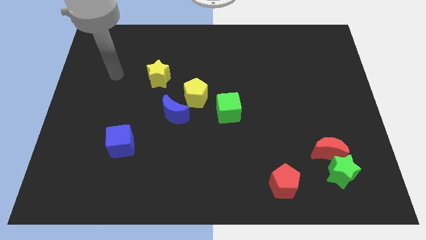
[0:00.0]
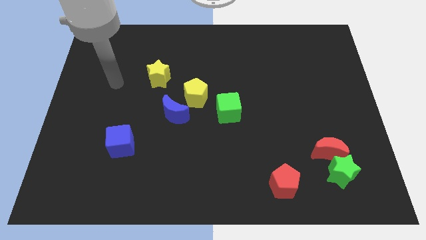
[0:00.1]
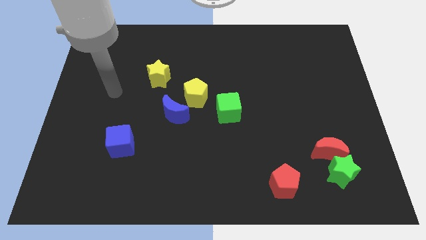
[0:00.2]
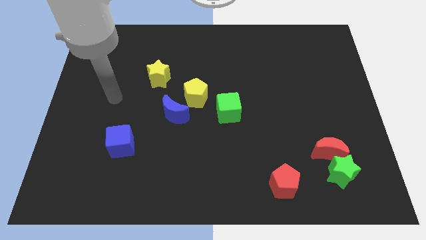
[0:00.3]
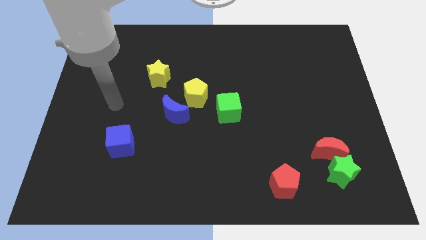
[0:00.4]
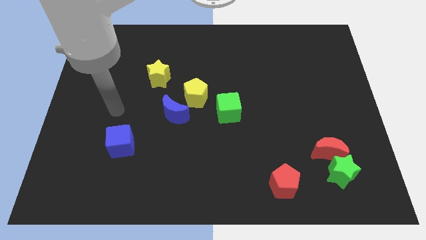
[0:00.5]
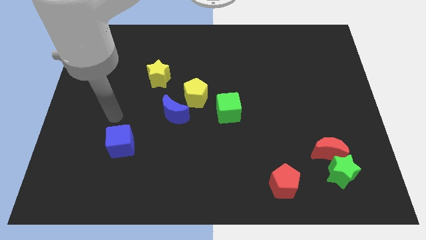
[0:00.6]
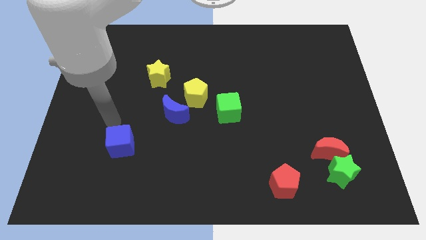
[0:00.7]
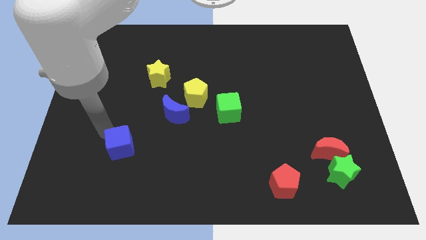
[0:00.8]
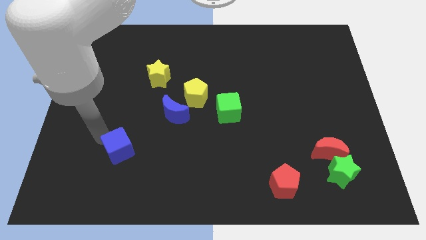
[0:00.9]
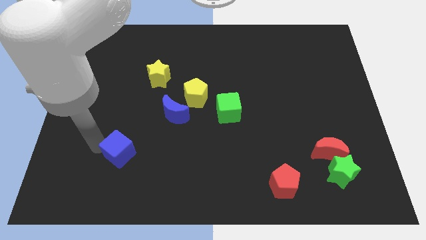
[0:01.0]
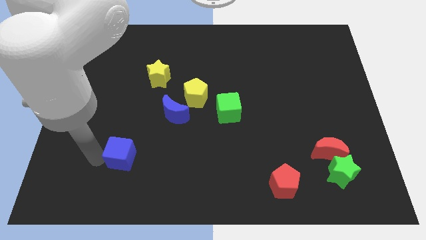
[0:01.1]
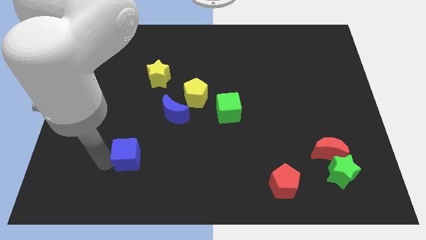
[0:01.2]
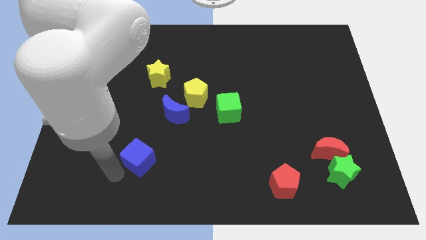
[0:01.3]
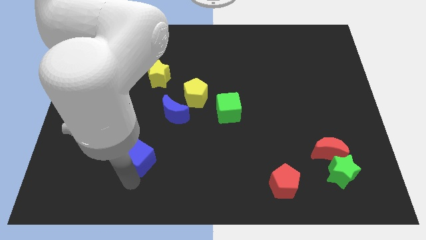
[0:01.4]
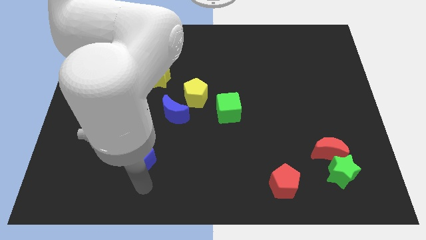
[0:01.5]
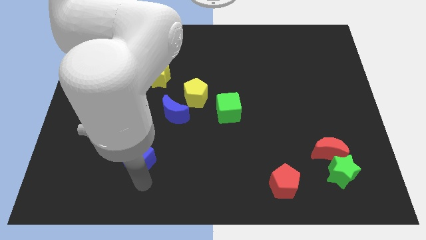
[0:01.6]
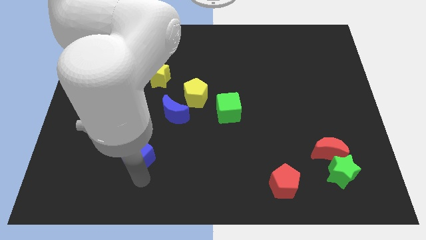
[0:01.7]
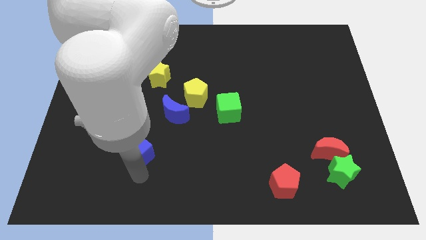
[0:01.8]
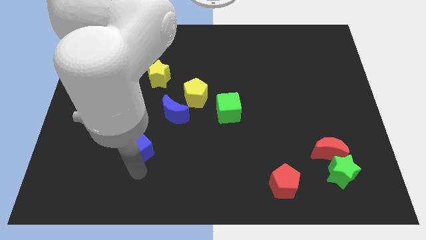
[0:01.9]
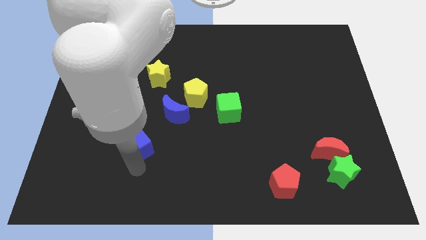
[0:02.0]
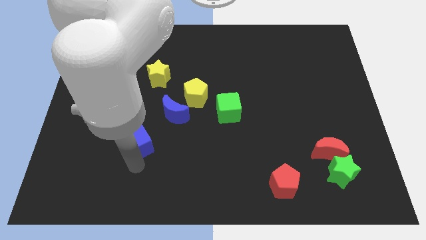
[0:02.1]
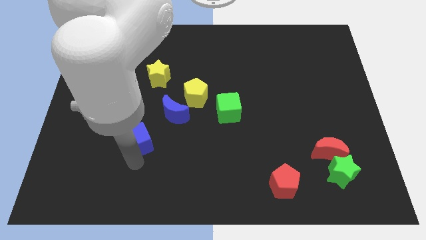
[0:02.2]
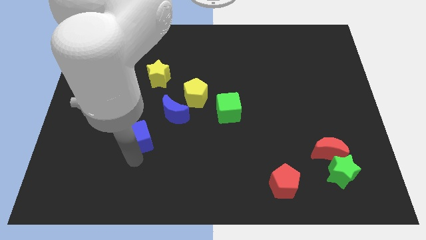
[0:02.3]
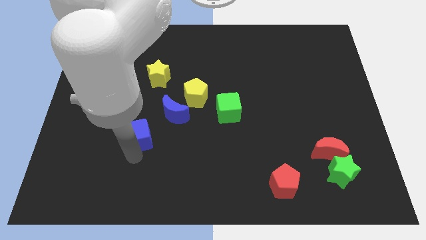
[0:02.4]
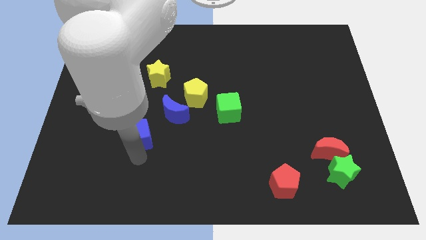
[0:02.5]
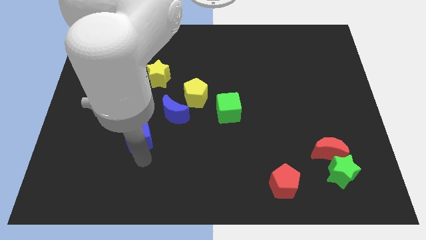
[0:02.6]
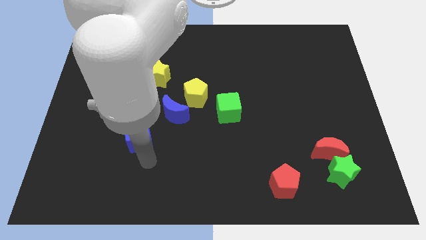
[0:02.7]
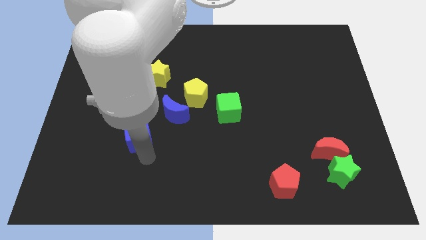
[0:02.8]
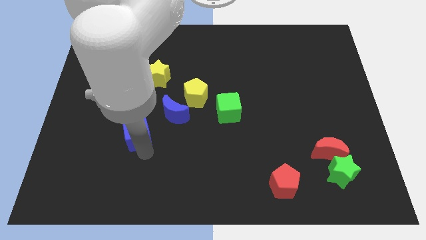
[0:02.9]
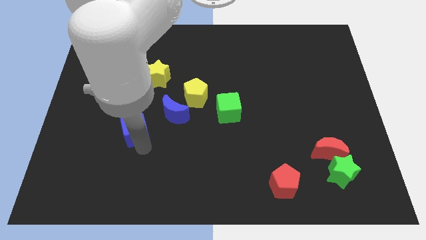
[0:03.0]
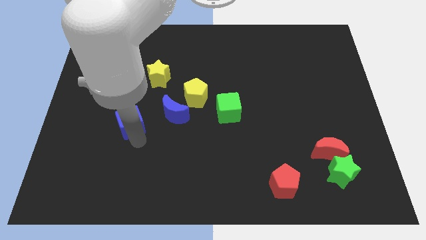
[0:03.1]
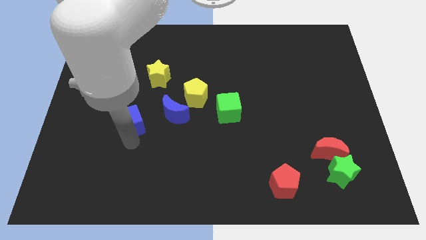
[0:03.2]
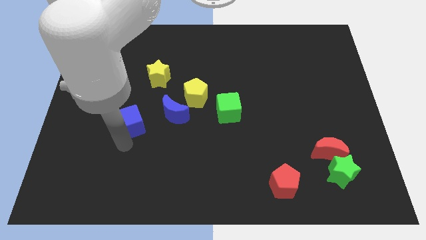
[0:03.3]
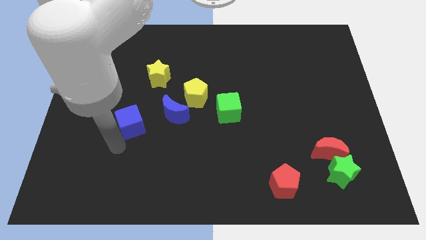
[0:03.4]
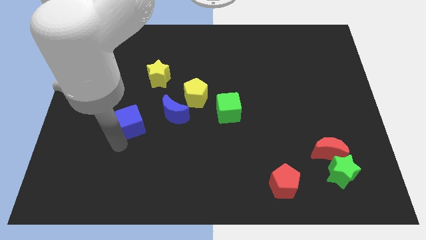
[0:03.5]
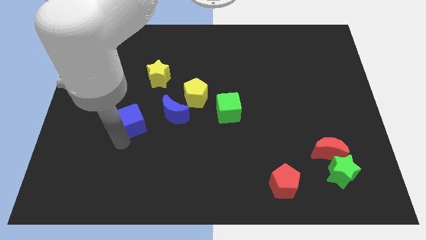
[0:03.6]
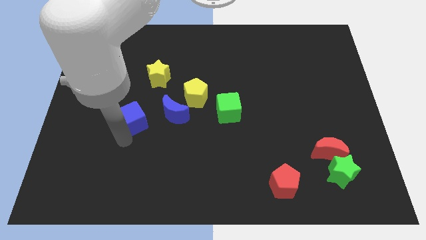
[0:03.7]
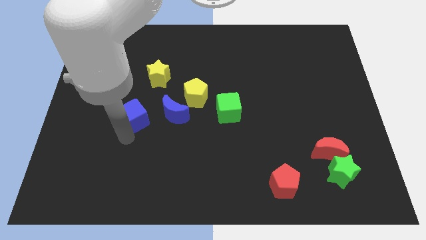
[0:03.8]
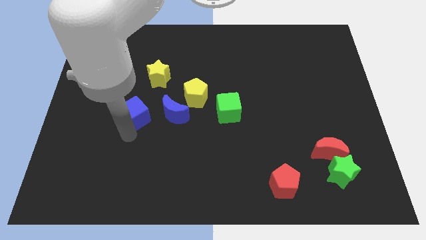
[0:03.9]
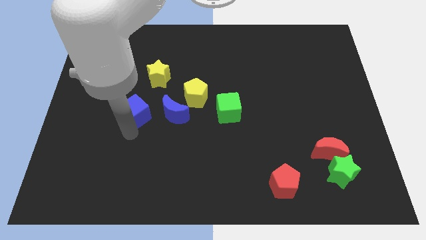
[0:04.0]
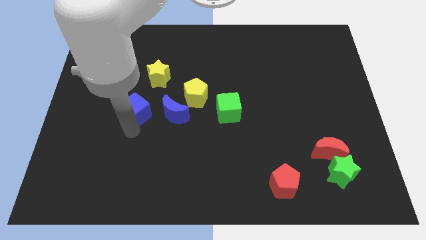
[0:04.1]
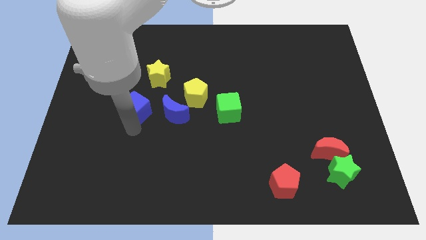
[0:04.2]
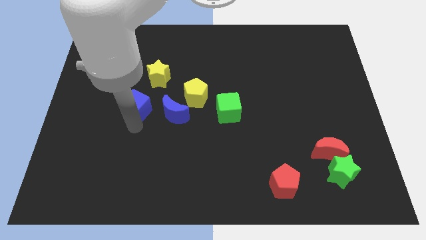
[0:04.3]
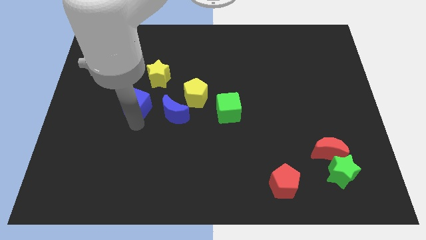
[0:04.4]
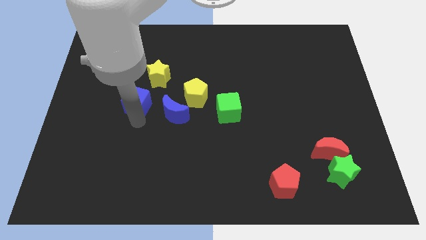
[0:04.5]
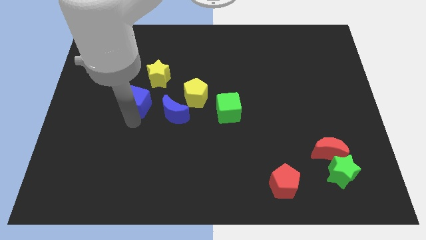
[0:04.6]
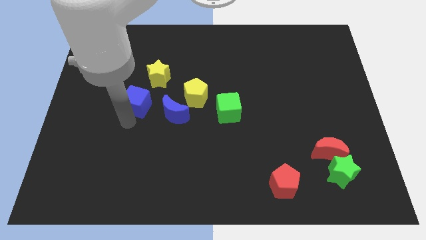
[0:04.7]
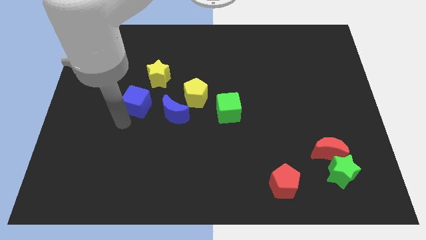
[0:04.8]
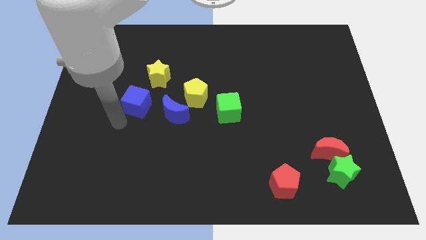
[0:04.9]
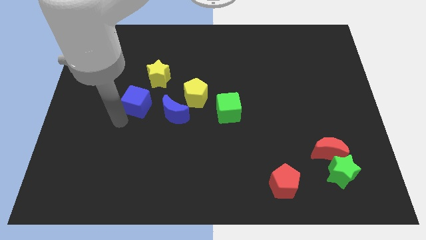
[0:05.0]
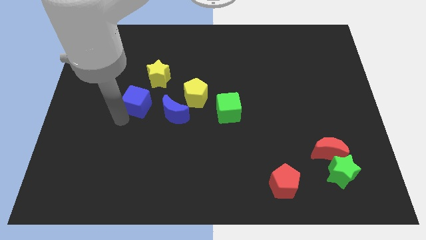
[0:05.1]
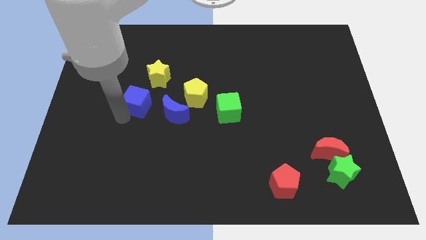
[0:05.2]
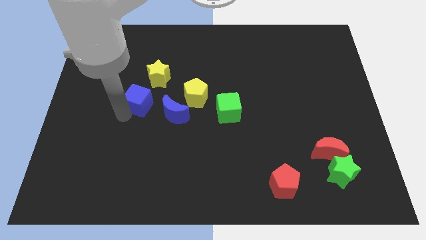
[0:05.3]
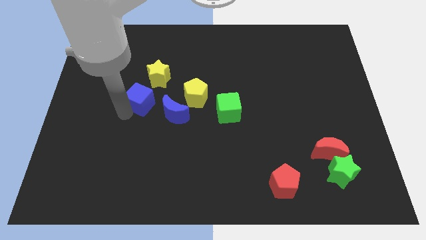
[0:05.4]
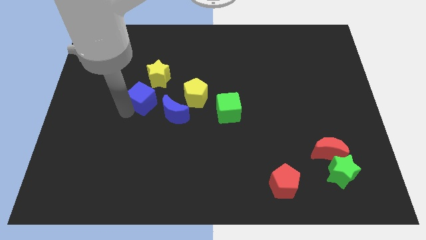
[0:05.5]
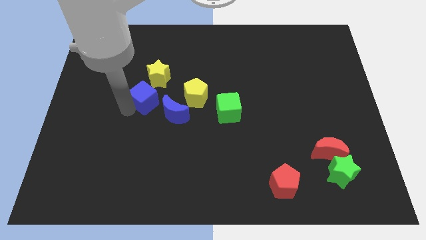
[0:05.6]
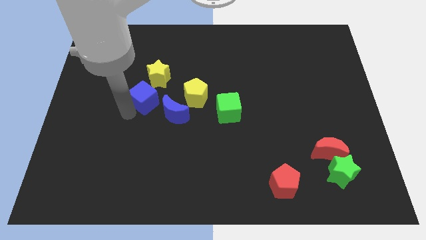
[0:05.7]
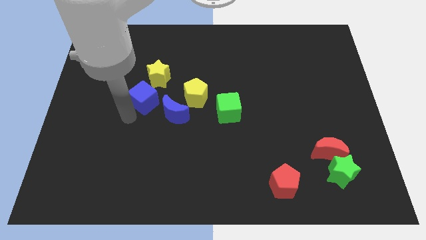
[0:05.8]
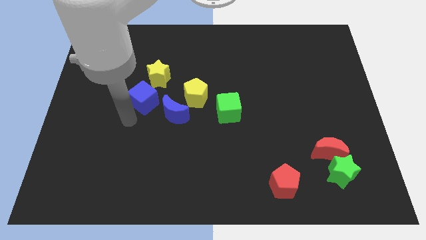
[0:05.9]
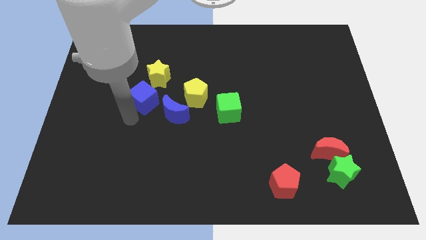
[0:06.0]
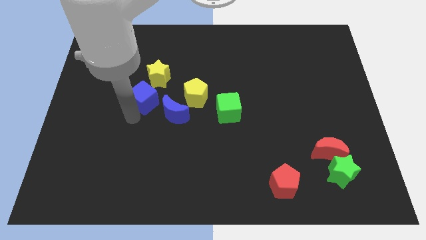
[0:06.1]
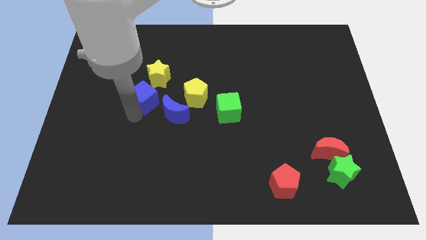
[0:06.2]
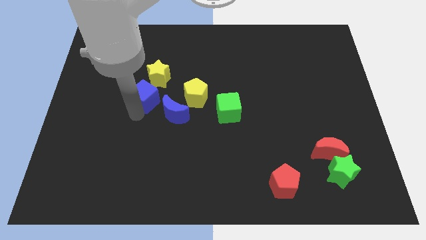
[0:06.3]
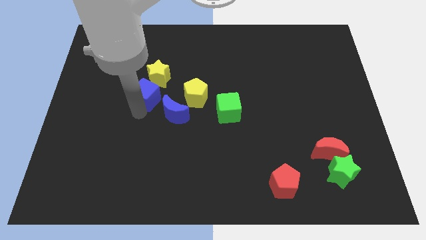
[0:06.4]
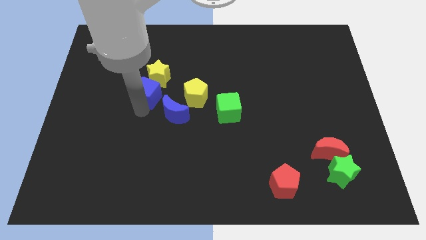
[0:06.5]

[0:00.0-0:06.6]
put the blue cube towards the yellow star

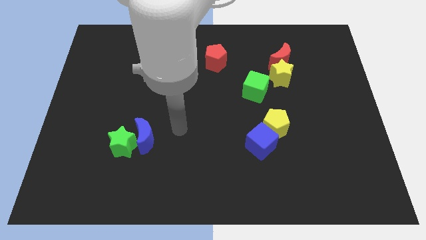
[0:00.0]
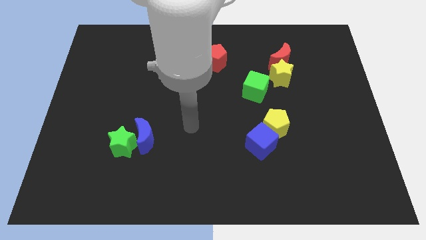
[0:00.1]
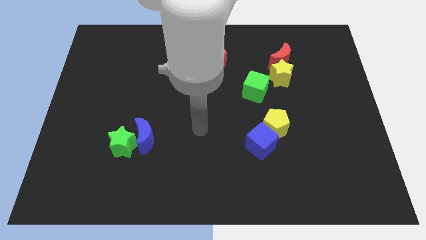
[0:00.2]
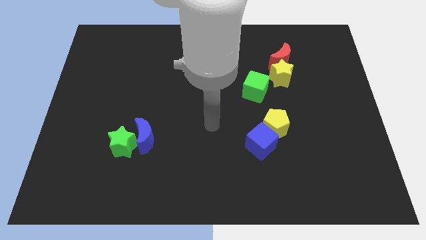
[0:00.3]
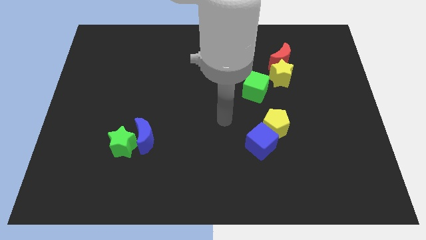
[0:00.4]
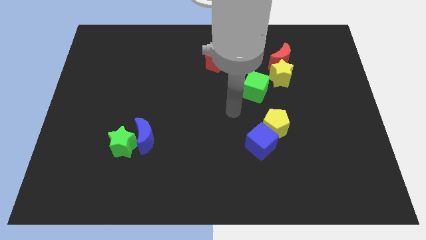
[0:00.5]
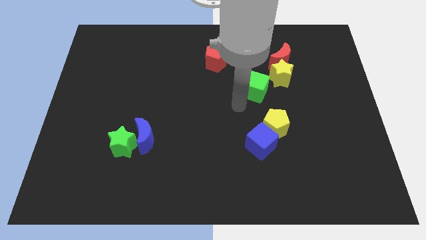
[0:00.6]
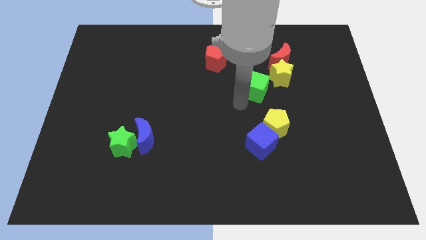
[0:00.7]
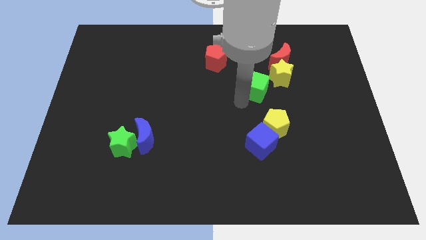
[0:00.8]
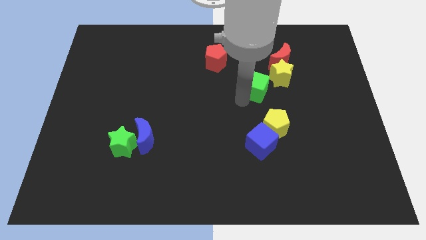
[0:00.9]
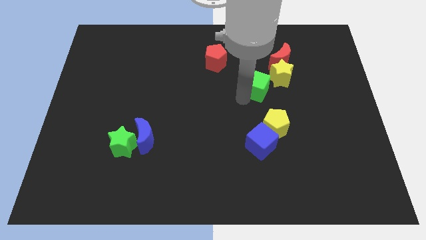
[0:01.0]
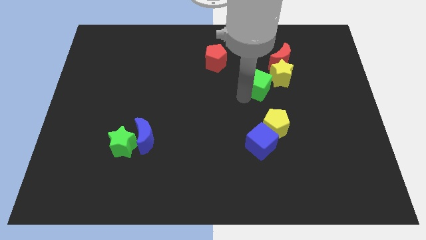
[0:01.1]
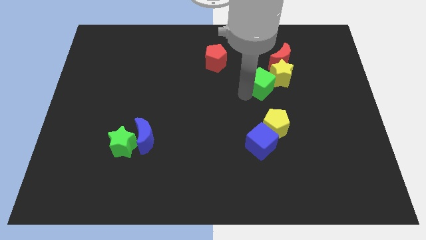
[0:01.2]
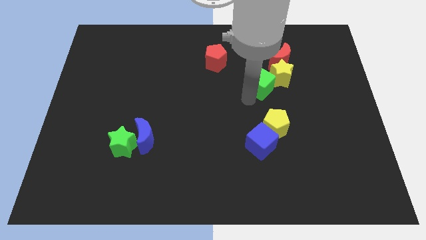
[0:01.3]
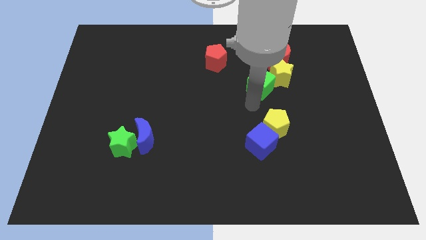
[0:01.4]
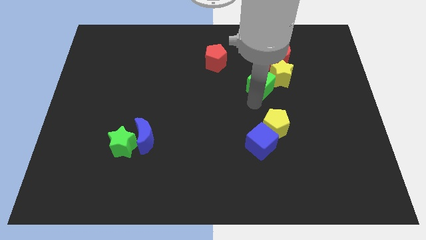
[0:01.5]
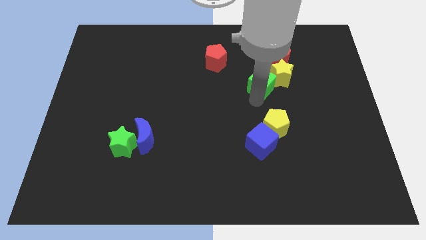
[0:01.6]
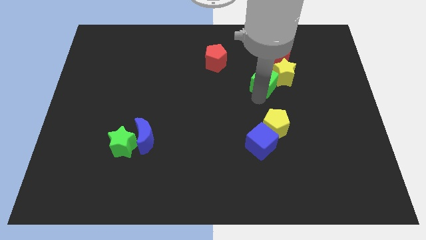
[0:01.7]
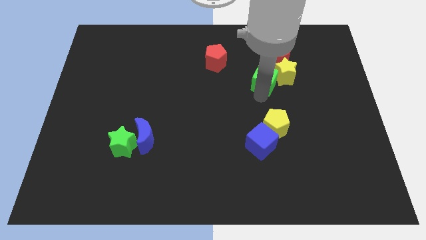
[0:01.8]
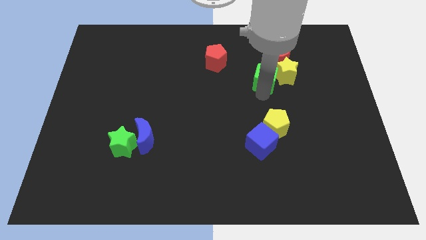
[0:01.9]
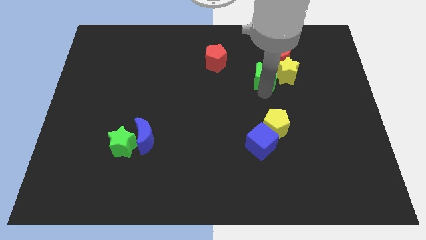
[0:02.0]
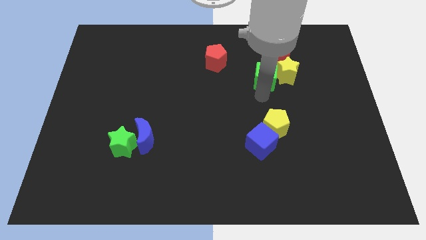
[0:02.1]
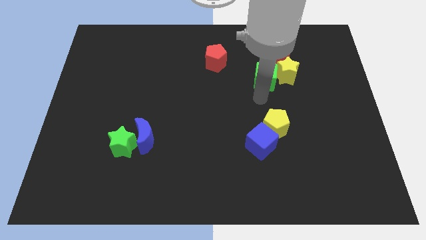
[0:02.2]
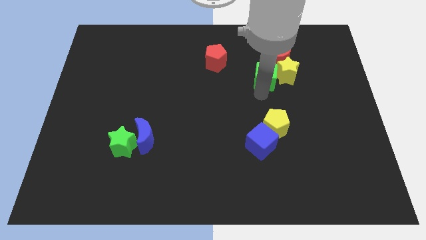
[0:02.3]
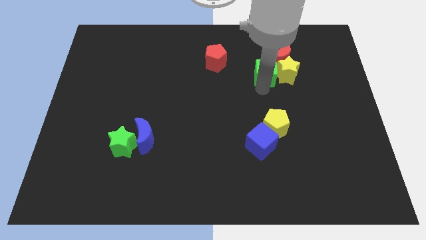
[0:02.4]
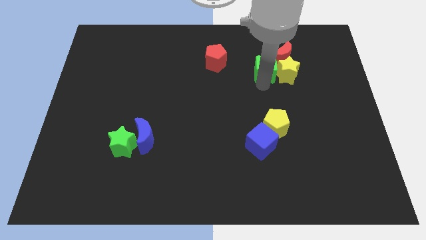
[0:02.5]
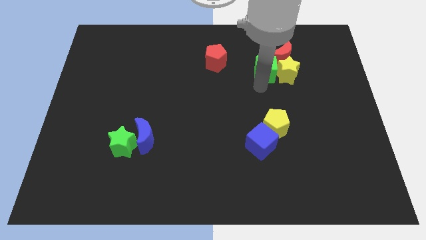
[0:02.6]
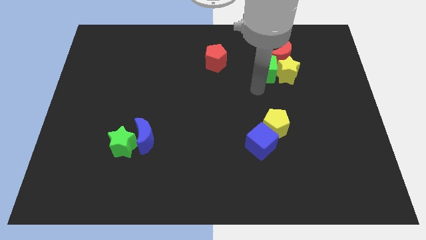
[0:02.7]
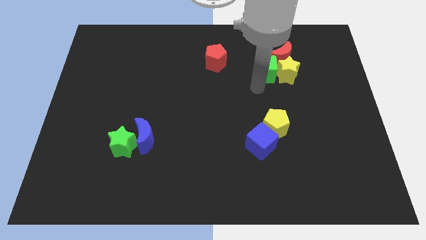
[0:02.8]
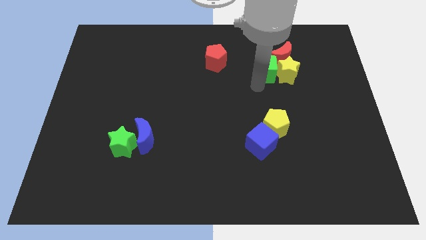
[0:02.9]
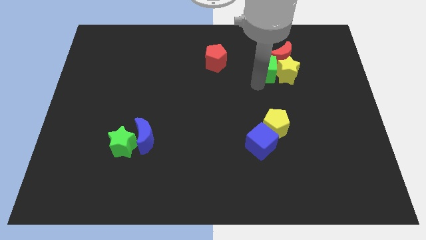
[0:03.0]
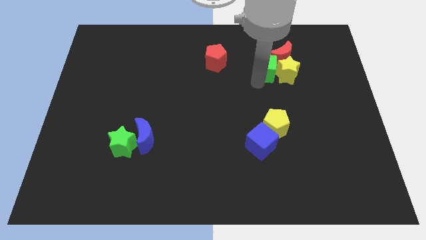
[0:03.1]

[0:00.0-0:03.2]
slide the green cube towards the red moon
